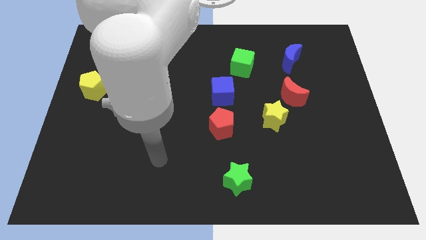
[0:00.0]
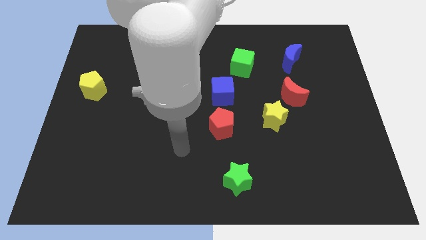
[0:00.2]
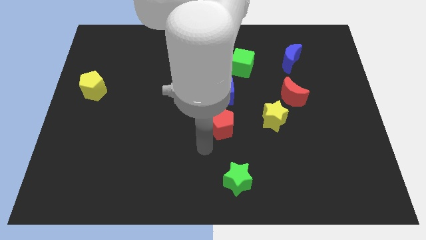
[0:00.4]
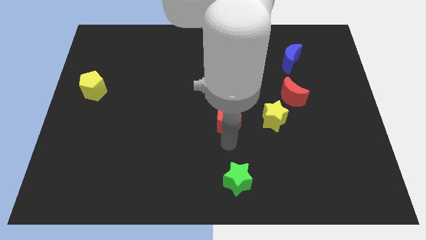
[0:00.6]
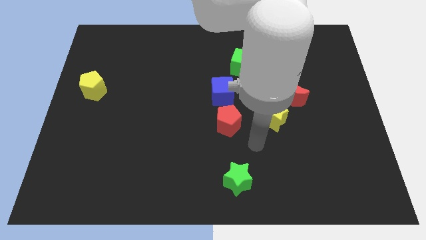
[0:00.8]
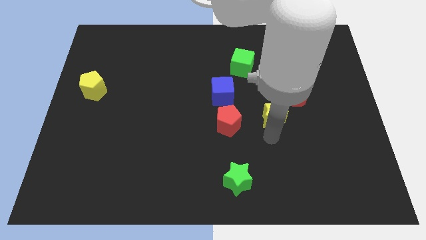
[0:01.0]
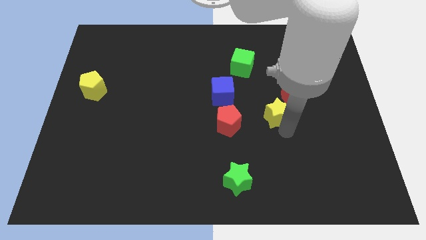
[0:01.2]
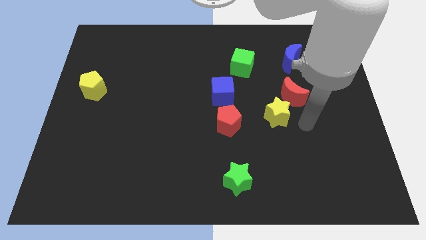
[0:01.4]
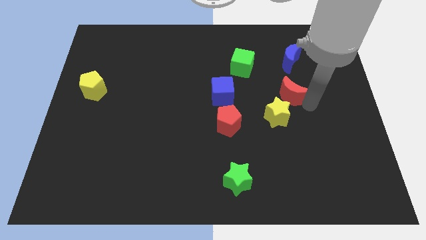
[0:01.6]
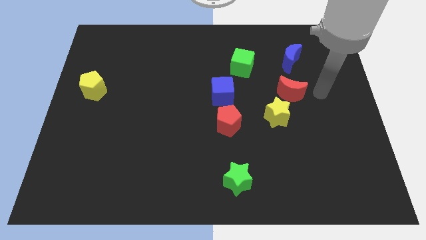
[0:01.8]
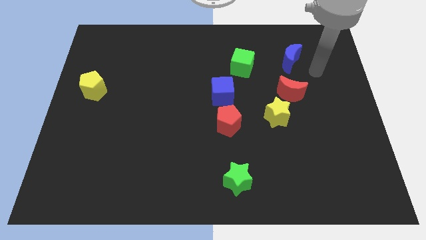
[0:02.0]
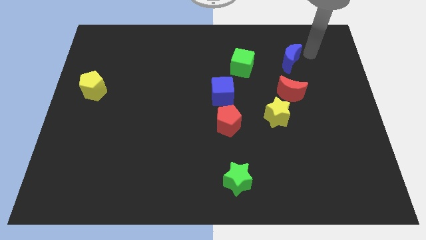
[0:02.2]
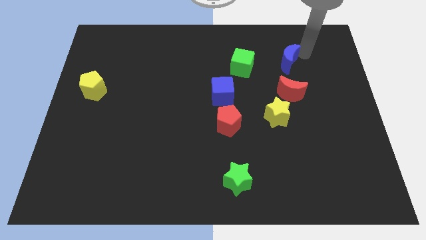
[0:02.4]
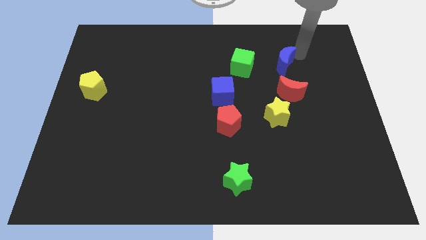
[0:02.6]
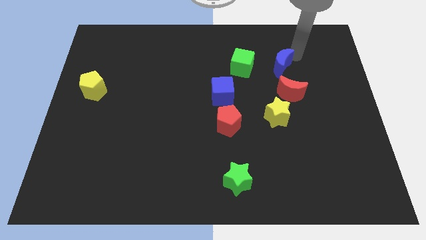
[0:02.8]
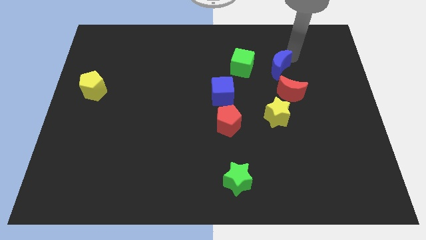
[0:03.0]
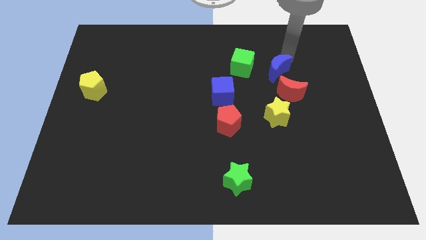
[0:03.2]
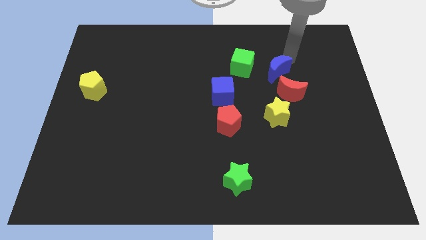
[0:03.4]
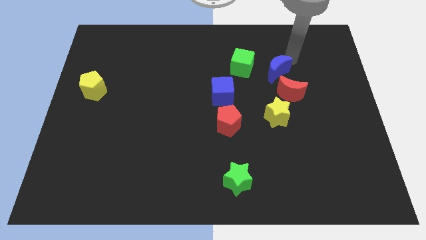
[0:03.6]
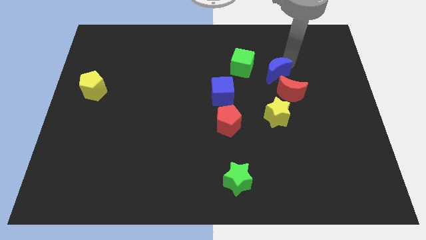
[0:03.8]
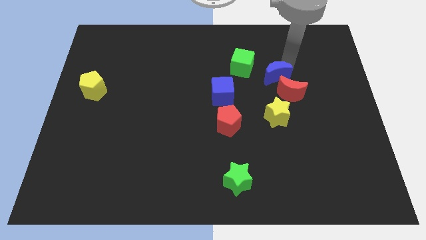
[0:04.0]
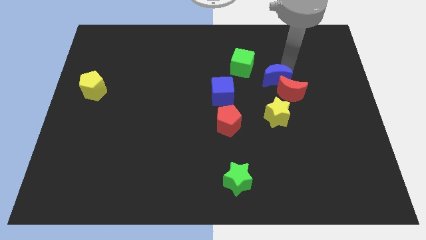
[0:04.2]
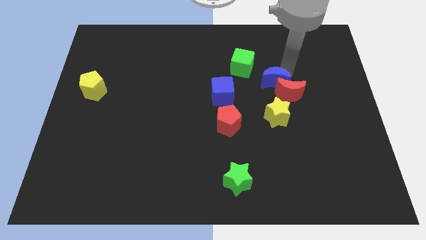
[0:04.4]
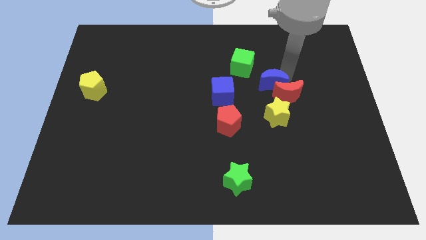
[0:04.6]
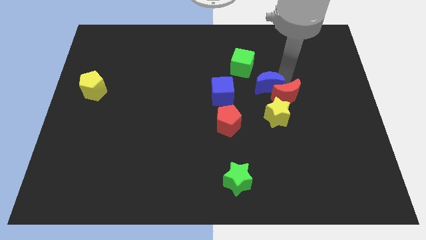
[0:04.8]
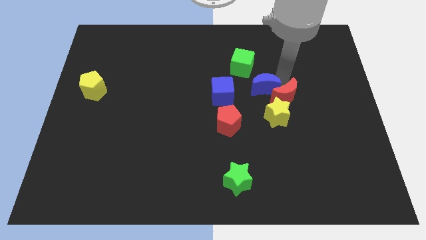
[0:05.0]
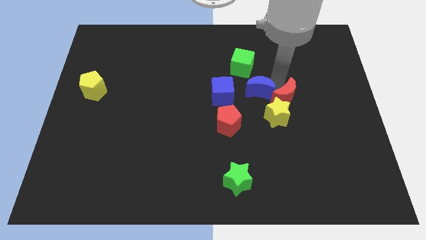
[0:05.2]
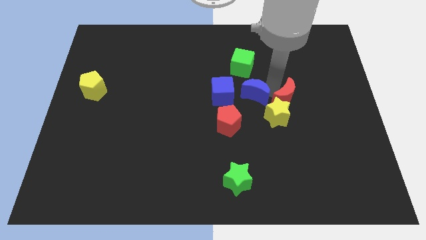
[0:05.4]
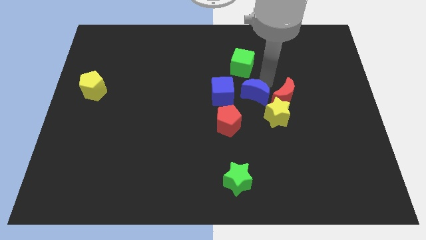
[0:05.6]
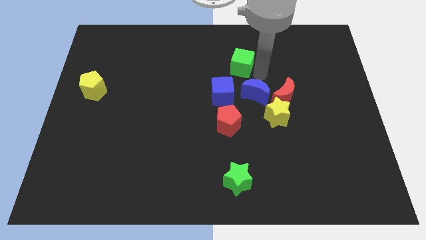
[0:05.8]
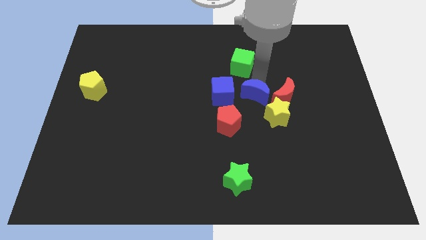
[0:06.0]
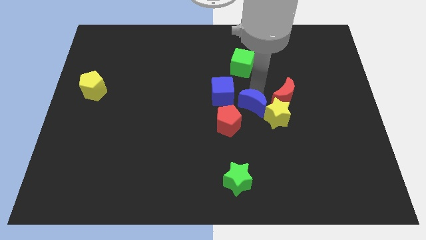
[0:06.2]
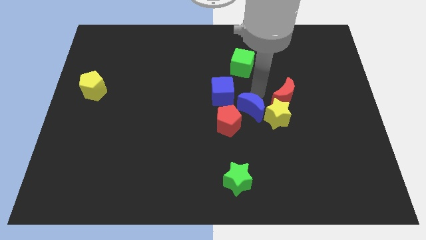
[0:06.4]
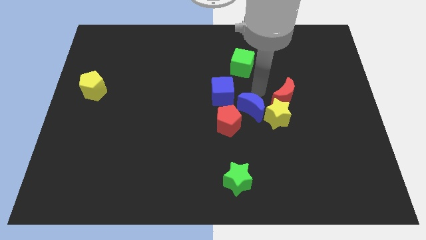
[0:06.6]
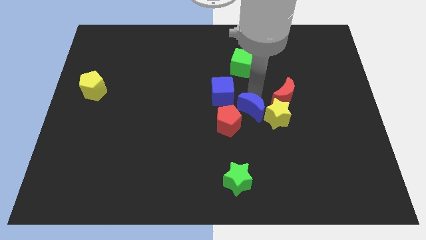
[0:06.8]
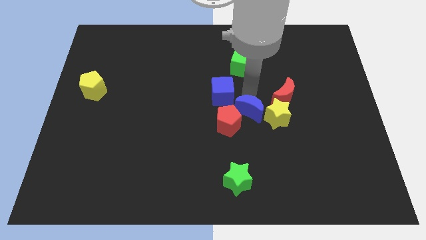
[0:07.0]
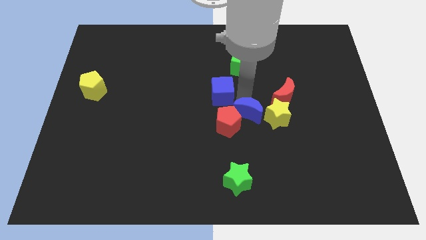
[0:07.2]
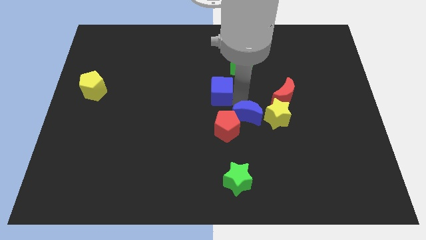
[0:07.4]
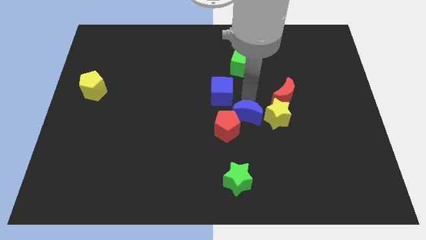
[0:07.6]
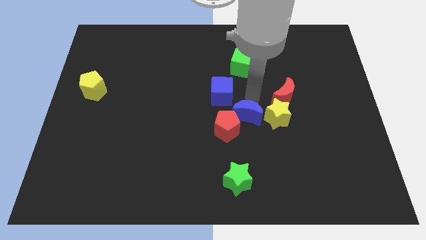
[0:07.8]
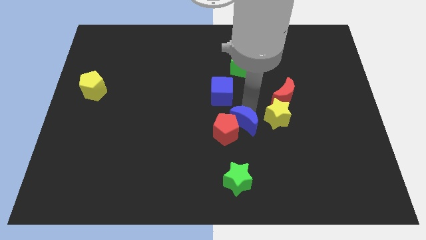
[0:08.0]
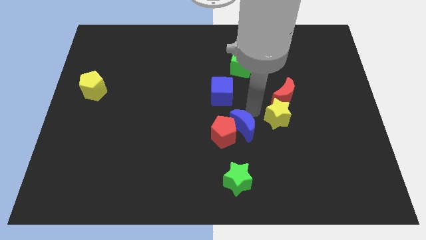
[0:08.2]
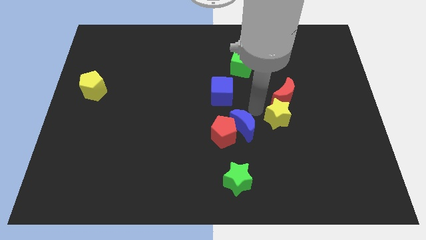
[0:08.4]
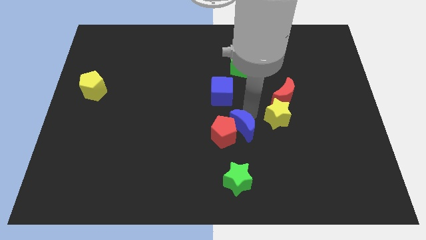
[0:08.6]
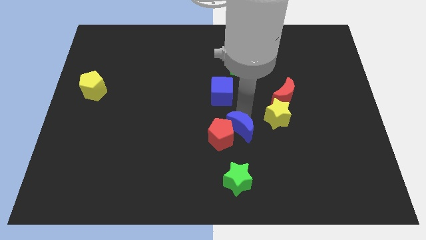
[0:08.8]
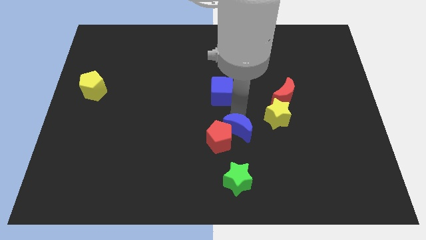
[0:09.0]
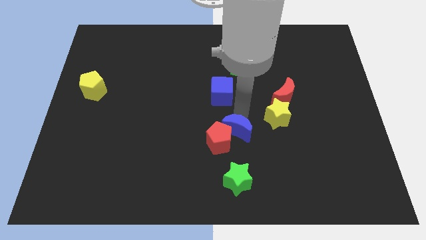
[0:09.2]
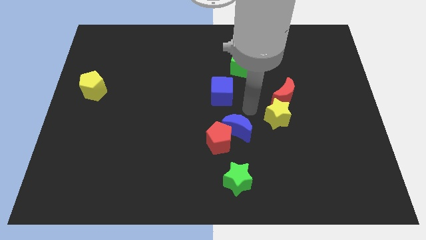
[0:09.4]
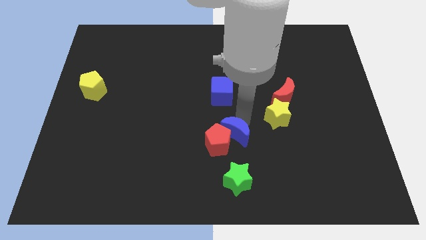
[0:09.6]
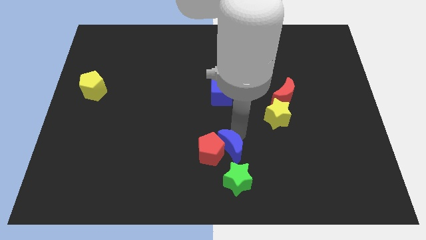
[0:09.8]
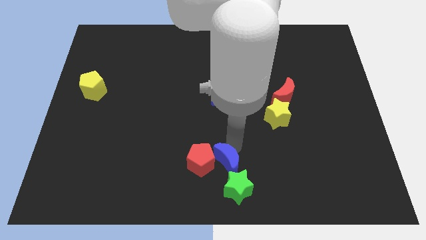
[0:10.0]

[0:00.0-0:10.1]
move the blue moon to the bottom side
